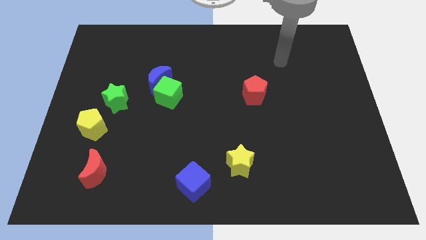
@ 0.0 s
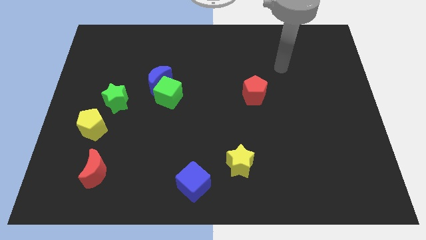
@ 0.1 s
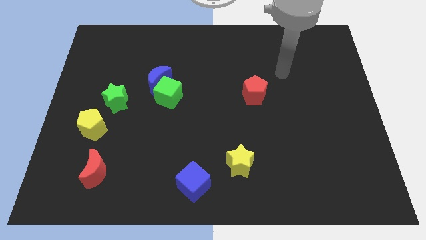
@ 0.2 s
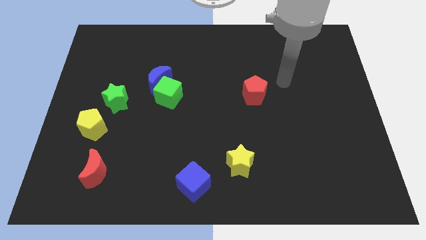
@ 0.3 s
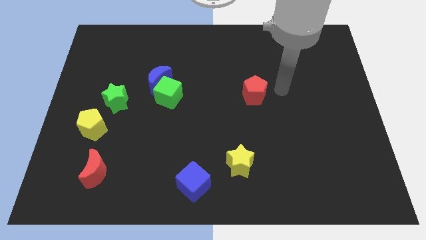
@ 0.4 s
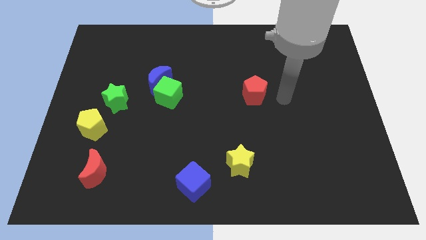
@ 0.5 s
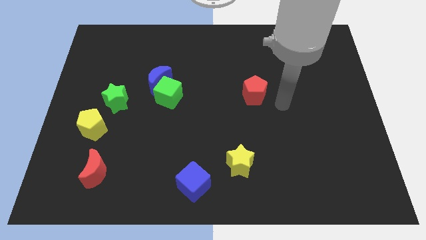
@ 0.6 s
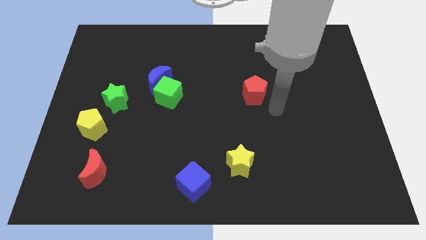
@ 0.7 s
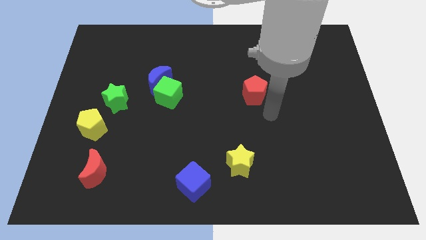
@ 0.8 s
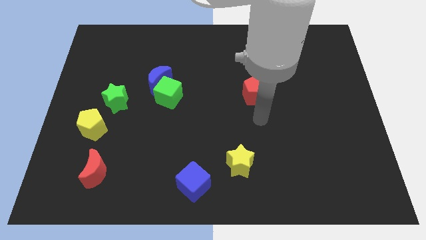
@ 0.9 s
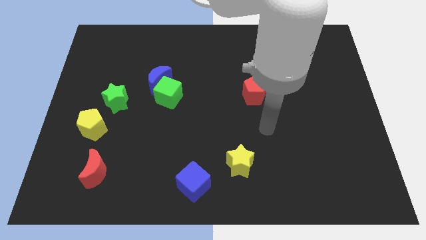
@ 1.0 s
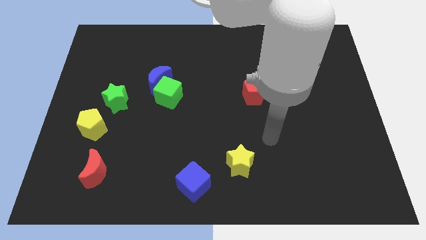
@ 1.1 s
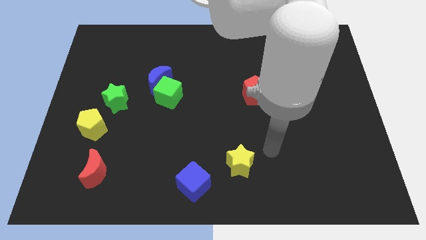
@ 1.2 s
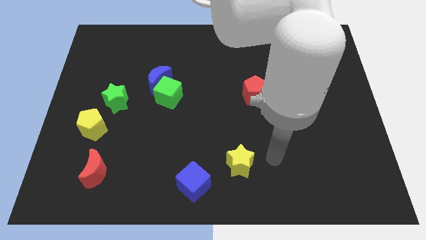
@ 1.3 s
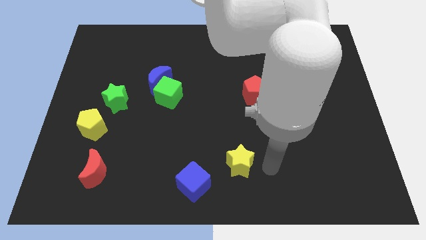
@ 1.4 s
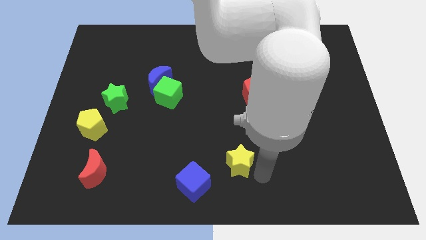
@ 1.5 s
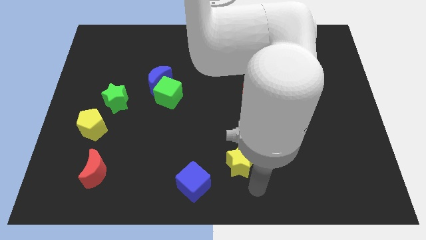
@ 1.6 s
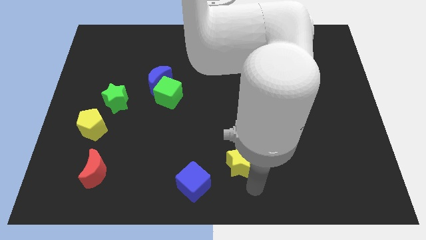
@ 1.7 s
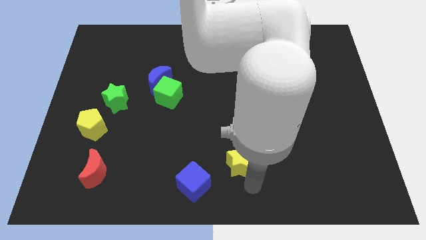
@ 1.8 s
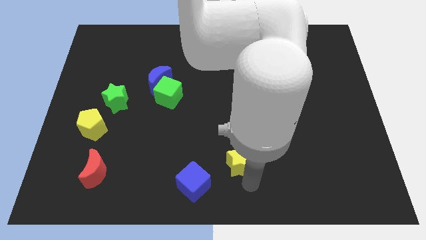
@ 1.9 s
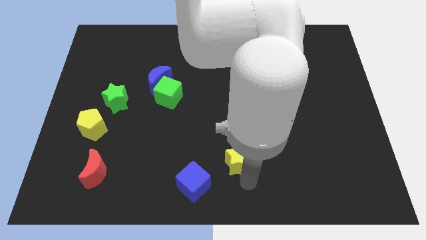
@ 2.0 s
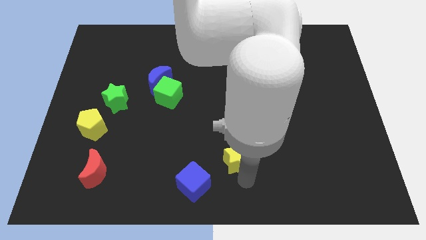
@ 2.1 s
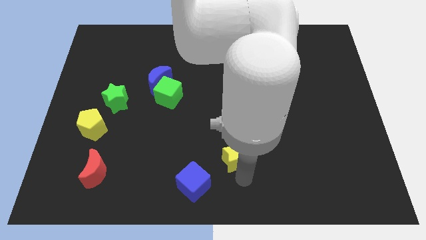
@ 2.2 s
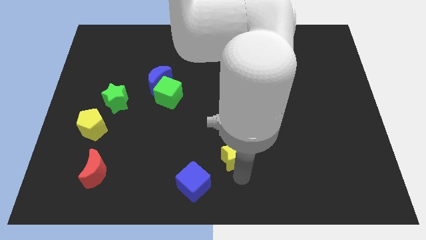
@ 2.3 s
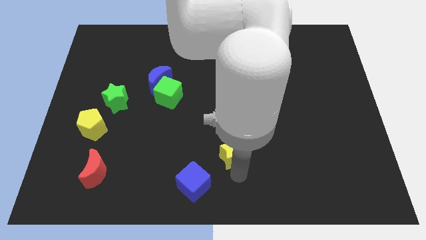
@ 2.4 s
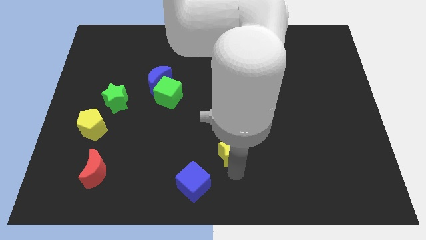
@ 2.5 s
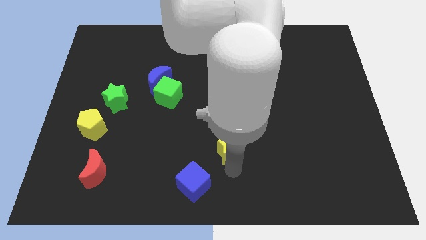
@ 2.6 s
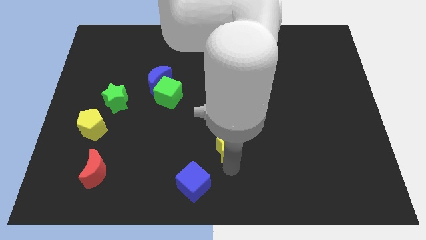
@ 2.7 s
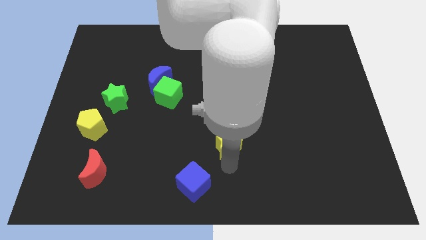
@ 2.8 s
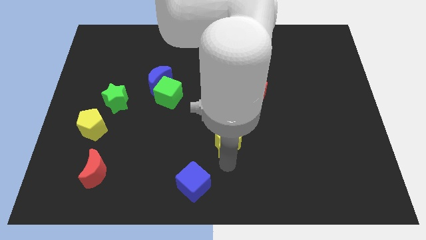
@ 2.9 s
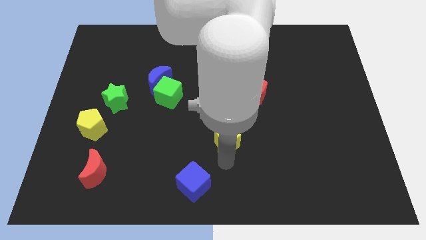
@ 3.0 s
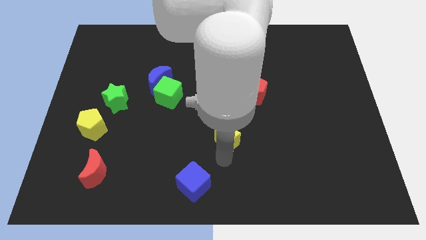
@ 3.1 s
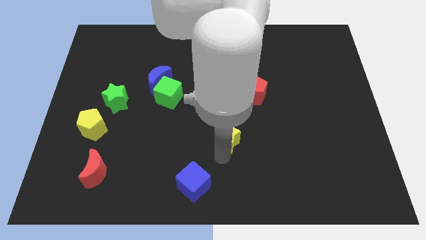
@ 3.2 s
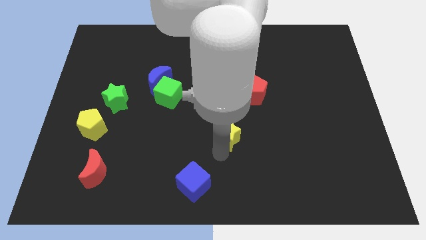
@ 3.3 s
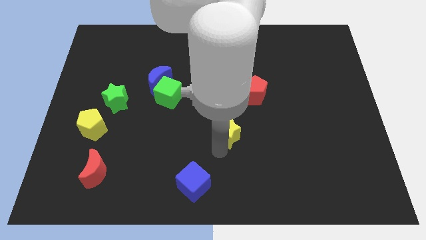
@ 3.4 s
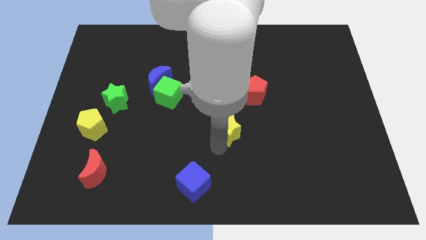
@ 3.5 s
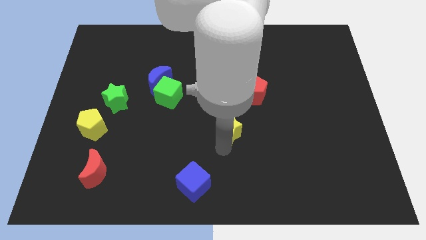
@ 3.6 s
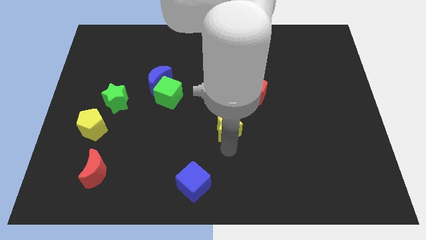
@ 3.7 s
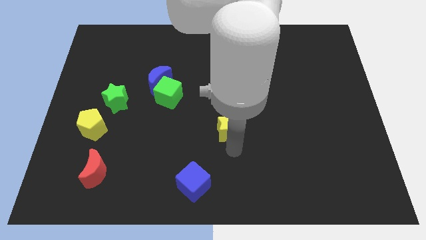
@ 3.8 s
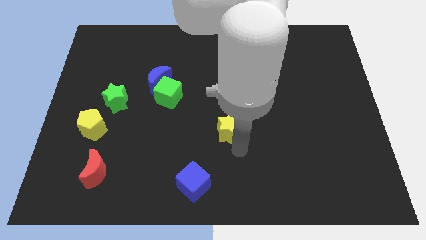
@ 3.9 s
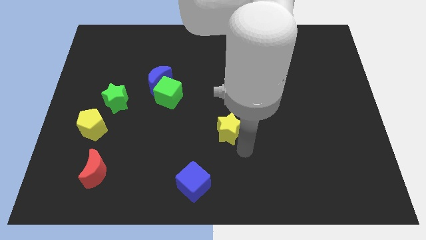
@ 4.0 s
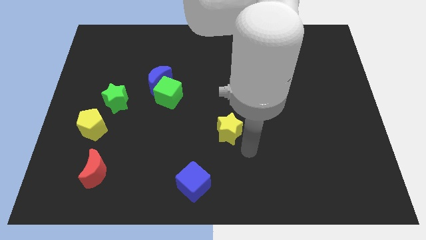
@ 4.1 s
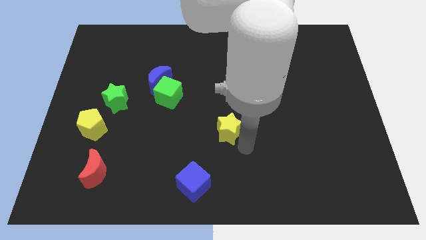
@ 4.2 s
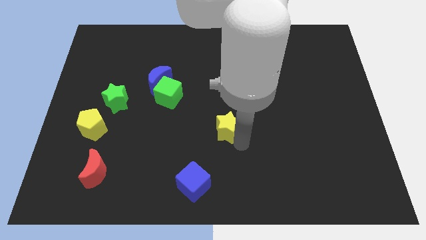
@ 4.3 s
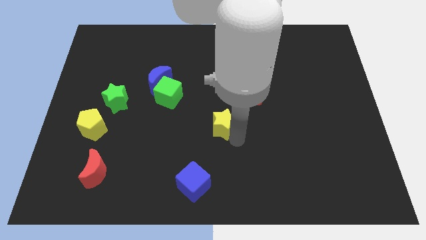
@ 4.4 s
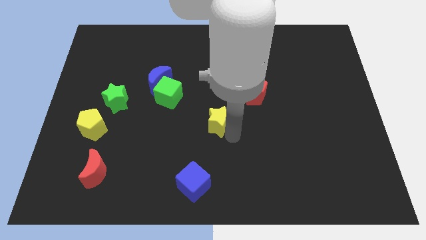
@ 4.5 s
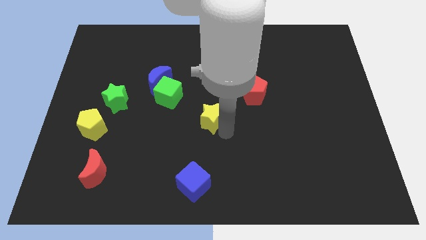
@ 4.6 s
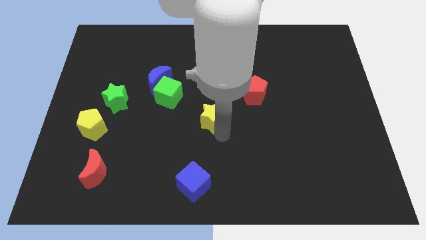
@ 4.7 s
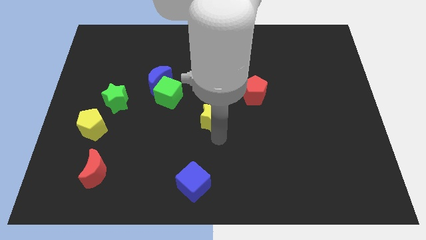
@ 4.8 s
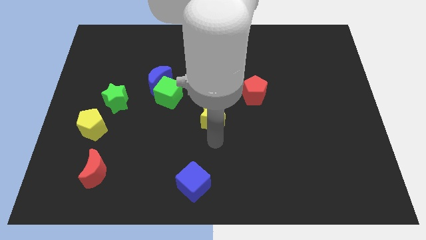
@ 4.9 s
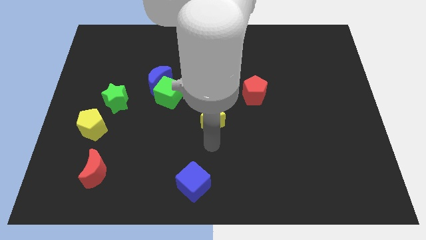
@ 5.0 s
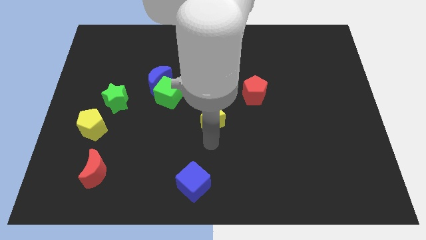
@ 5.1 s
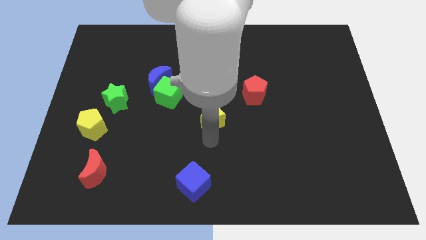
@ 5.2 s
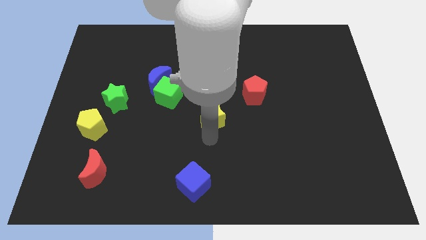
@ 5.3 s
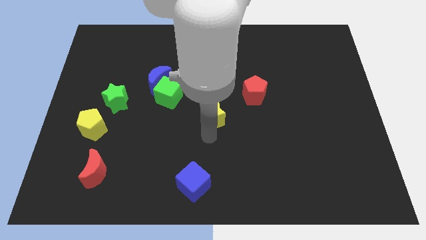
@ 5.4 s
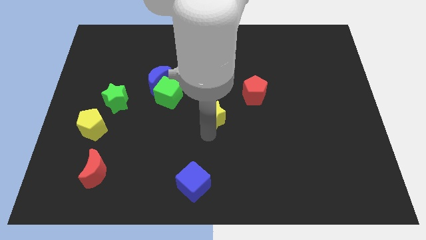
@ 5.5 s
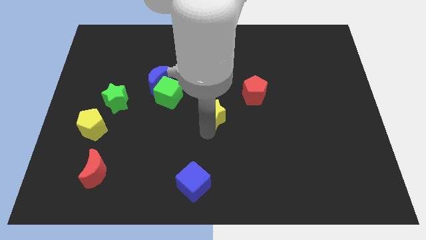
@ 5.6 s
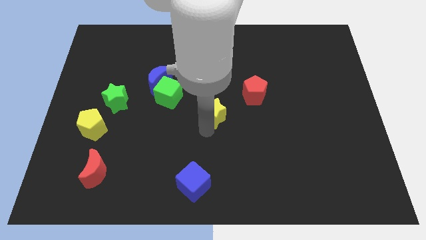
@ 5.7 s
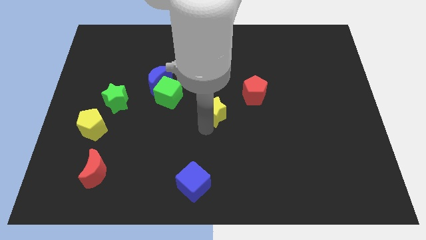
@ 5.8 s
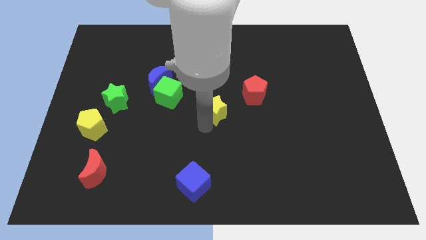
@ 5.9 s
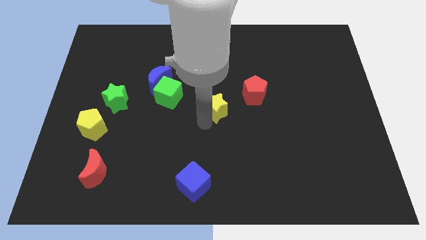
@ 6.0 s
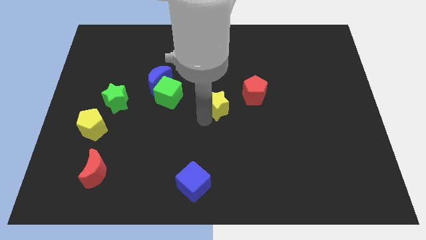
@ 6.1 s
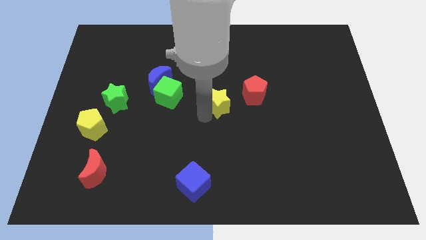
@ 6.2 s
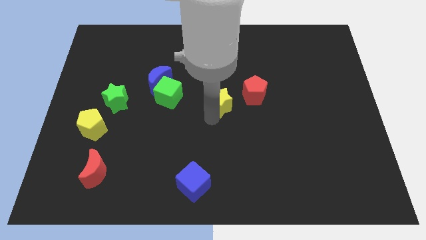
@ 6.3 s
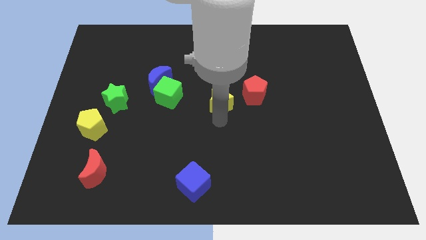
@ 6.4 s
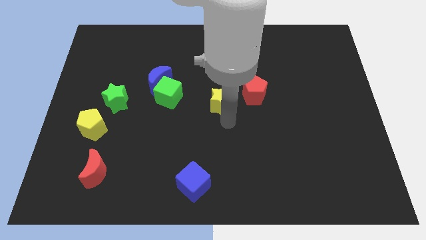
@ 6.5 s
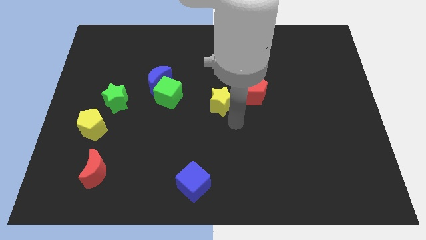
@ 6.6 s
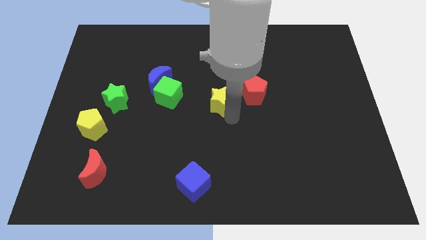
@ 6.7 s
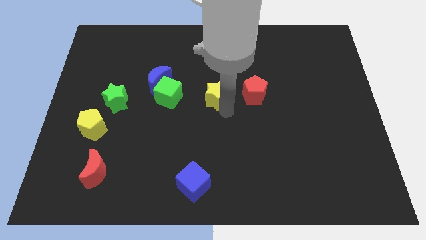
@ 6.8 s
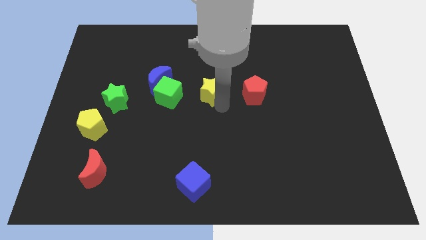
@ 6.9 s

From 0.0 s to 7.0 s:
slide the yellow star just right of the blue moon
